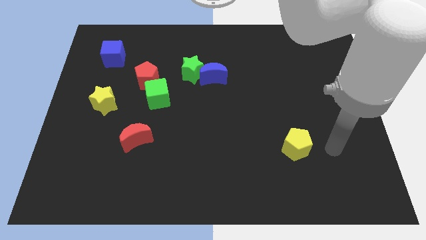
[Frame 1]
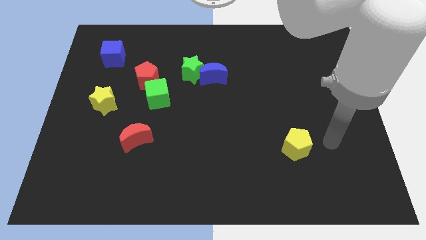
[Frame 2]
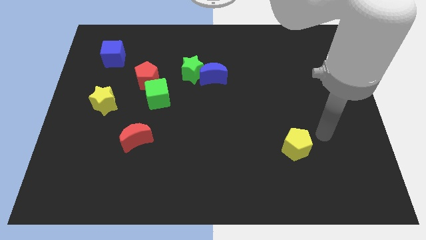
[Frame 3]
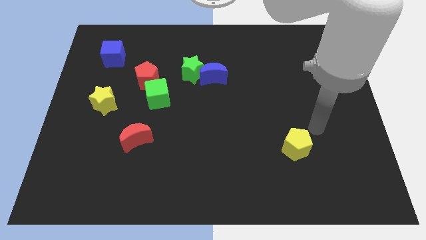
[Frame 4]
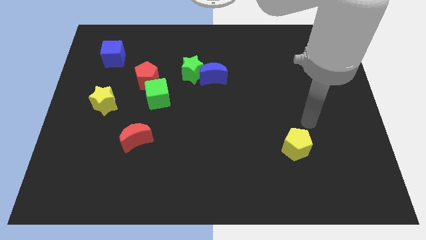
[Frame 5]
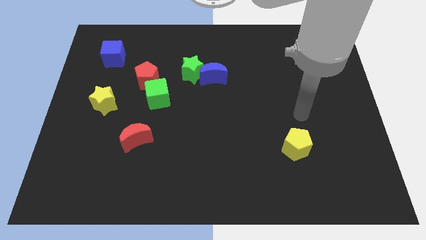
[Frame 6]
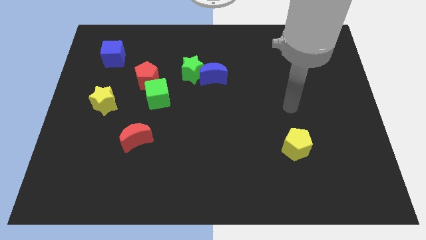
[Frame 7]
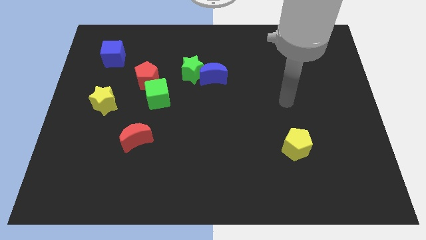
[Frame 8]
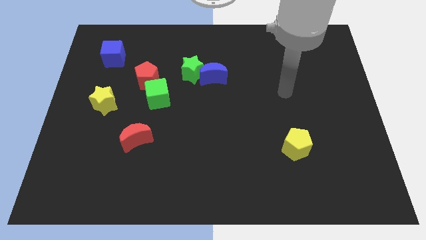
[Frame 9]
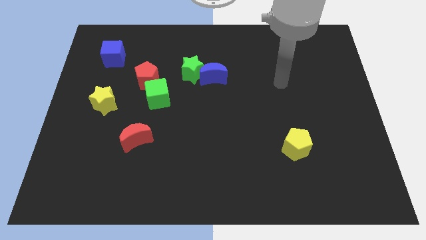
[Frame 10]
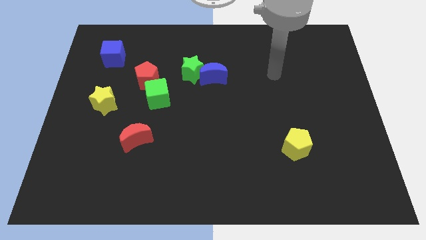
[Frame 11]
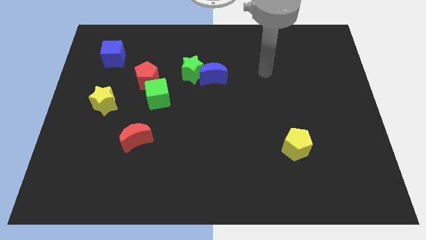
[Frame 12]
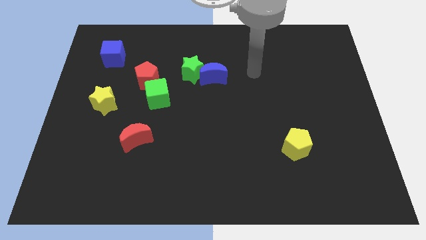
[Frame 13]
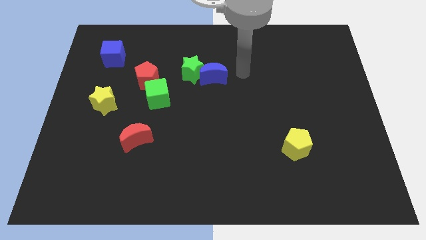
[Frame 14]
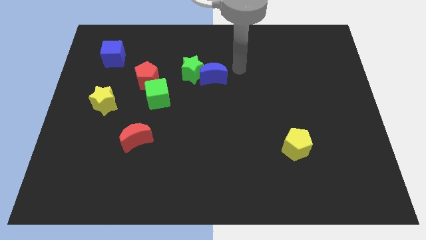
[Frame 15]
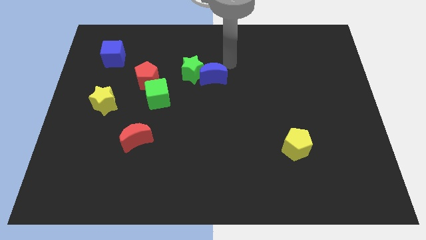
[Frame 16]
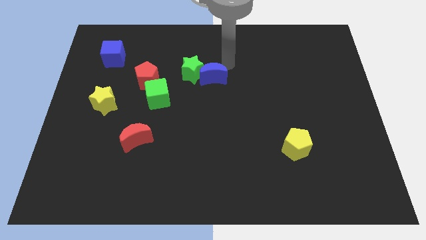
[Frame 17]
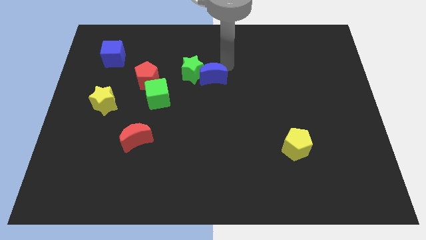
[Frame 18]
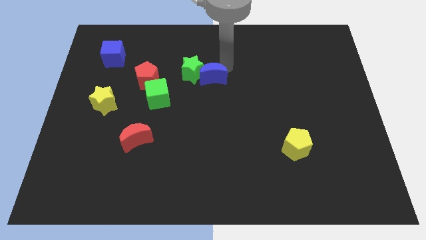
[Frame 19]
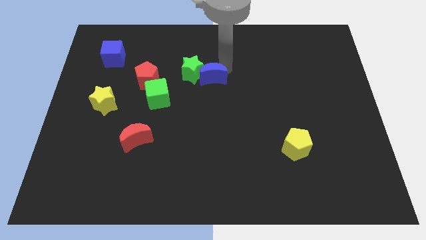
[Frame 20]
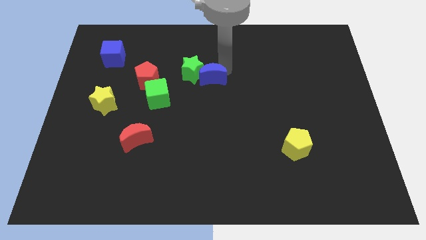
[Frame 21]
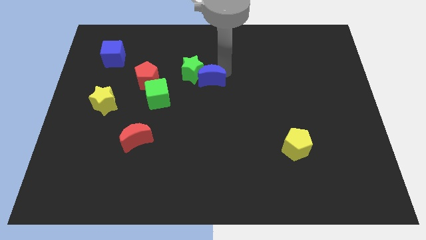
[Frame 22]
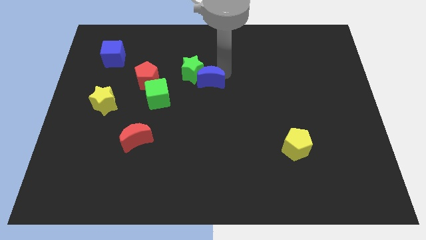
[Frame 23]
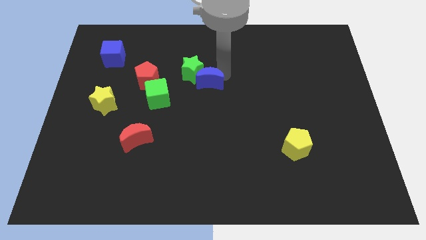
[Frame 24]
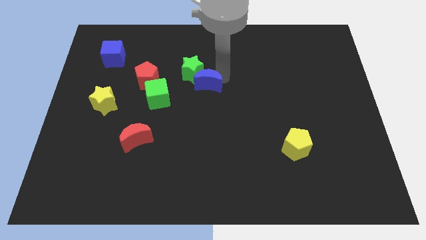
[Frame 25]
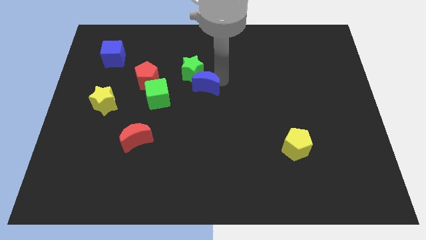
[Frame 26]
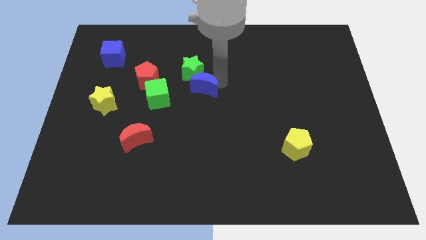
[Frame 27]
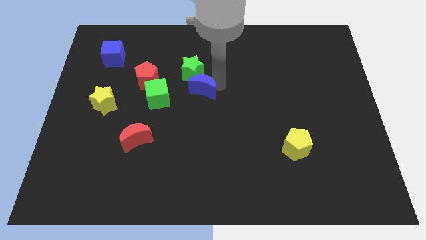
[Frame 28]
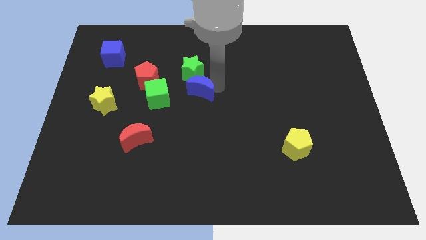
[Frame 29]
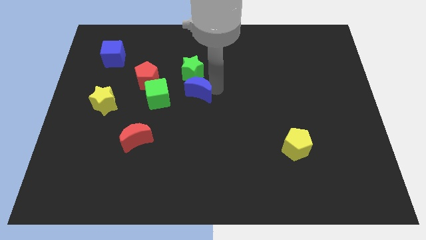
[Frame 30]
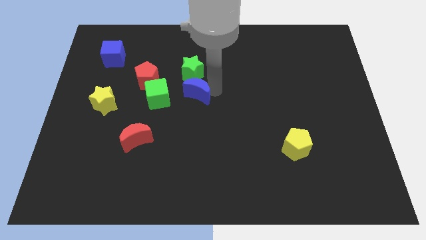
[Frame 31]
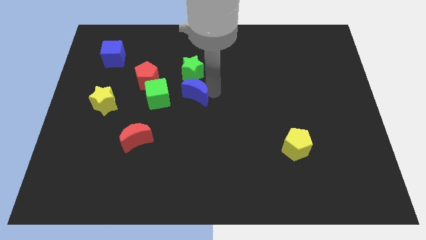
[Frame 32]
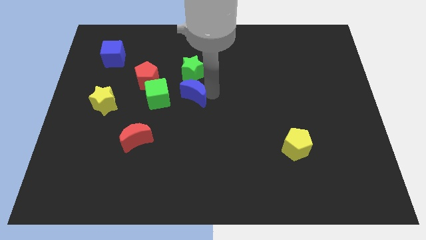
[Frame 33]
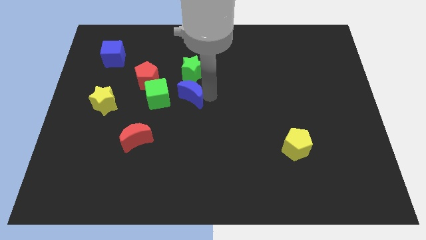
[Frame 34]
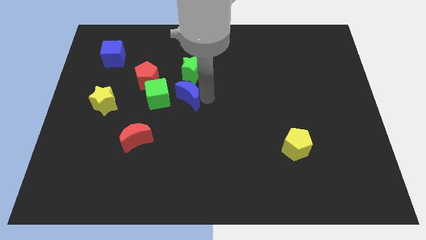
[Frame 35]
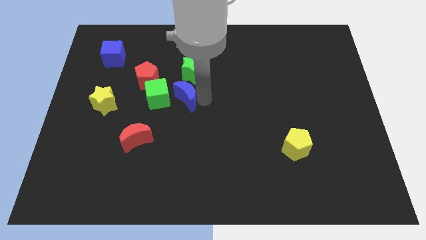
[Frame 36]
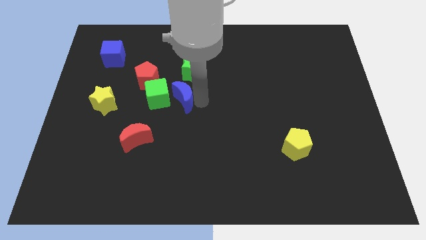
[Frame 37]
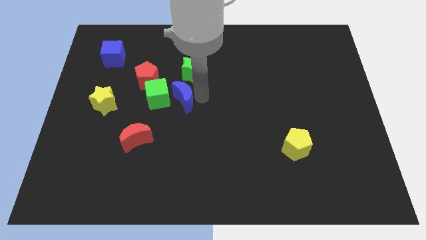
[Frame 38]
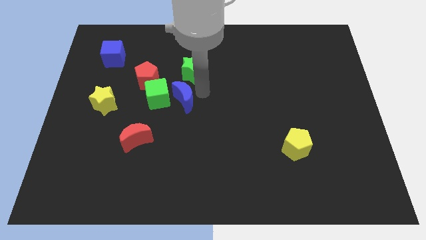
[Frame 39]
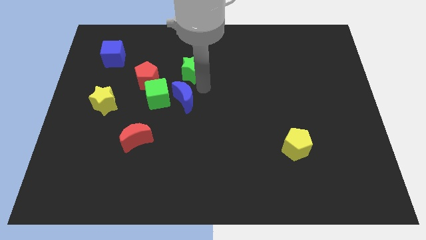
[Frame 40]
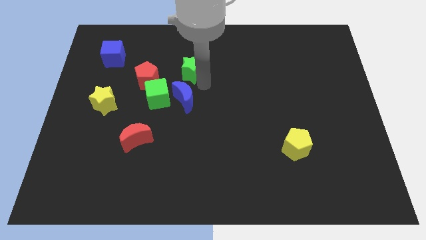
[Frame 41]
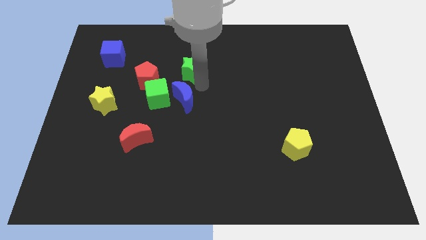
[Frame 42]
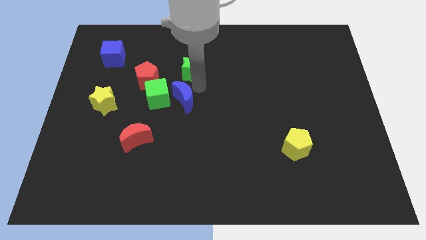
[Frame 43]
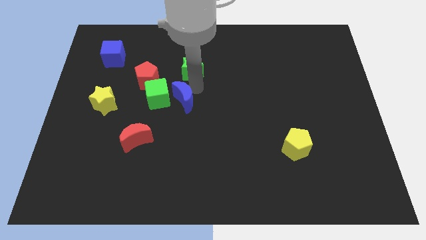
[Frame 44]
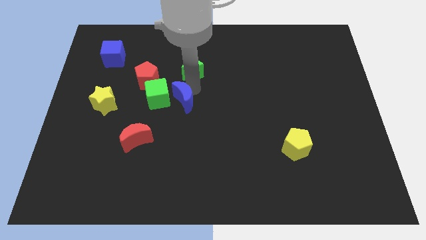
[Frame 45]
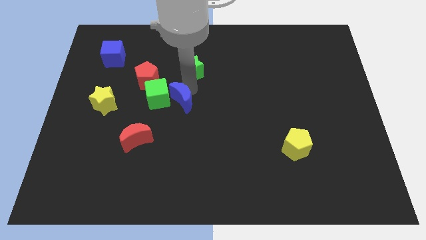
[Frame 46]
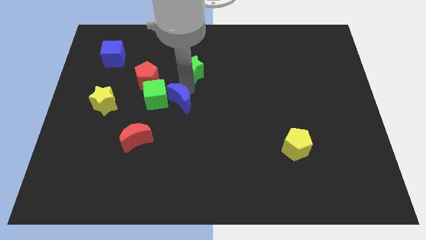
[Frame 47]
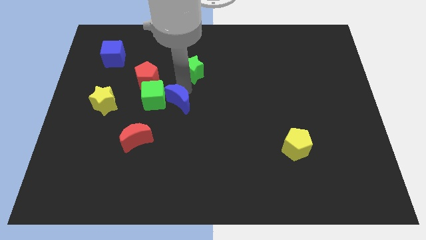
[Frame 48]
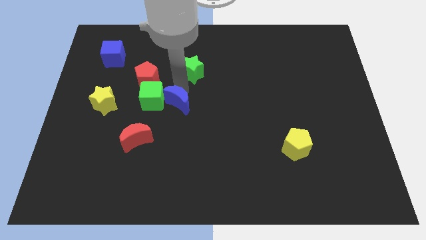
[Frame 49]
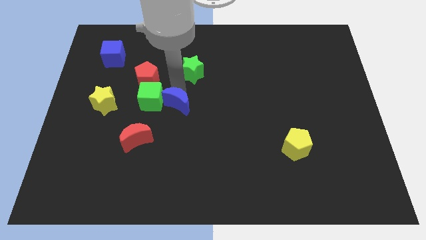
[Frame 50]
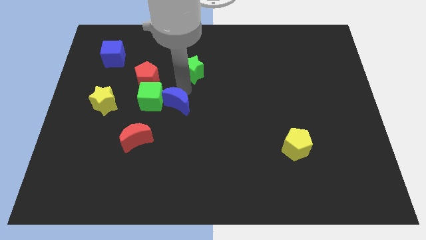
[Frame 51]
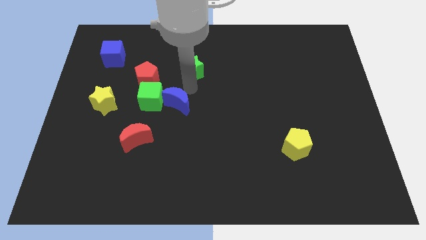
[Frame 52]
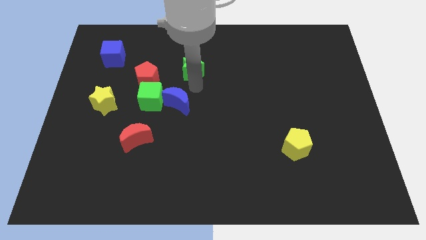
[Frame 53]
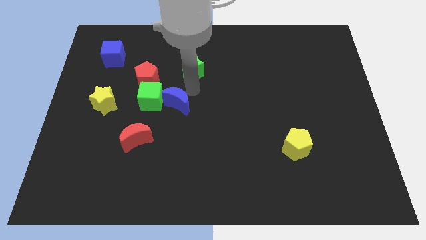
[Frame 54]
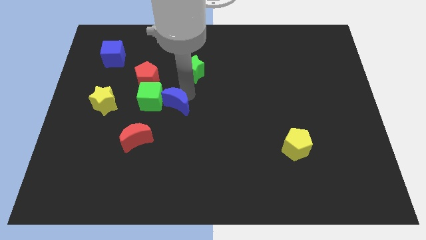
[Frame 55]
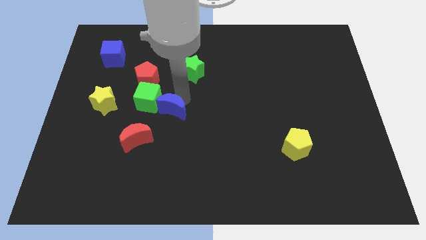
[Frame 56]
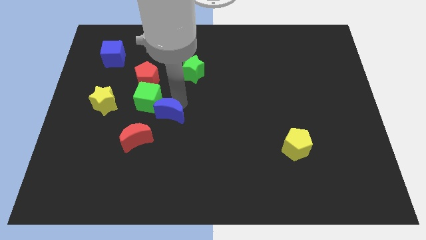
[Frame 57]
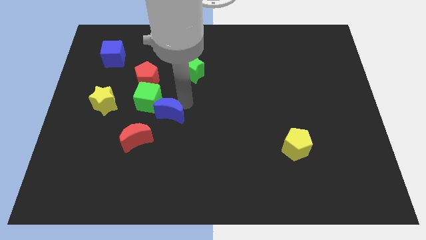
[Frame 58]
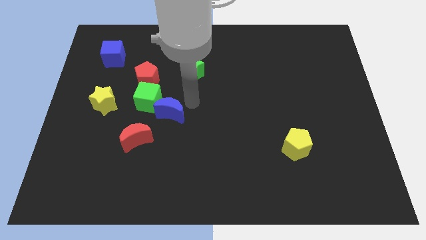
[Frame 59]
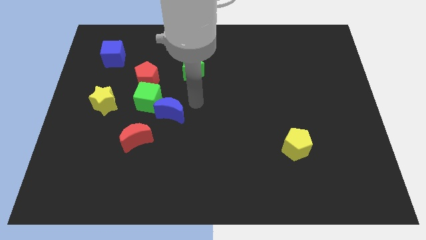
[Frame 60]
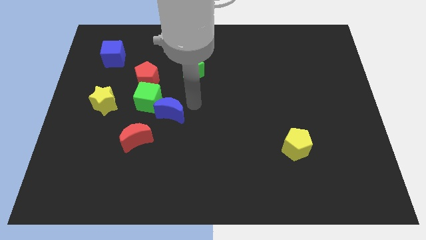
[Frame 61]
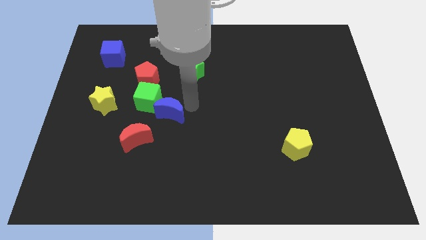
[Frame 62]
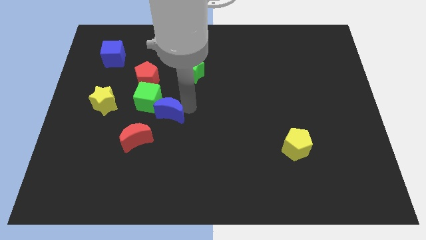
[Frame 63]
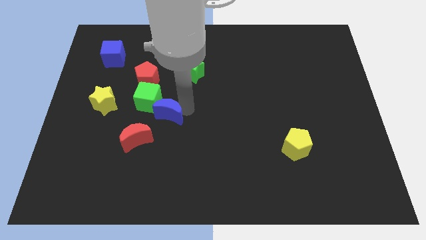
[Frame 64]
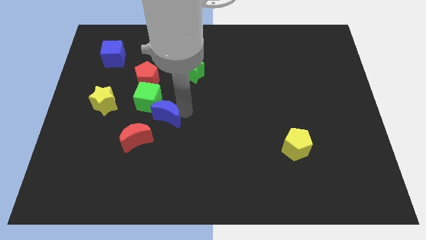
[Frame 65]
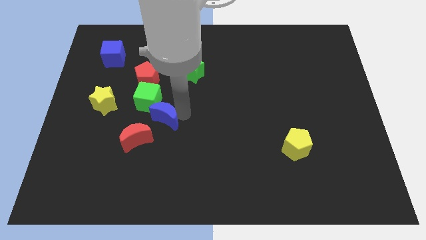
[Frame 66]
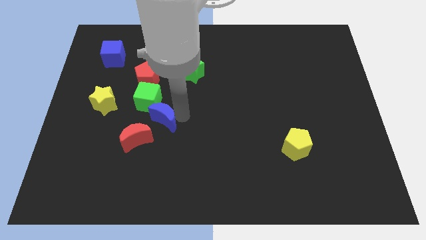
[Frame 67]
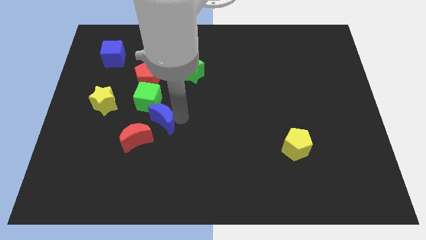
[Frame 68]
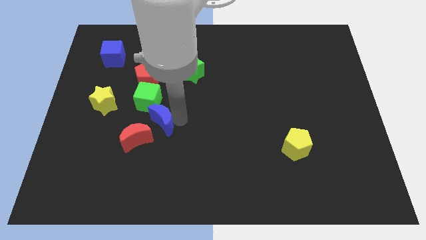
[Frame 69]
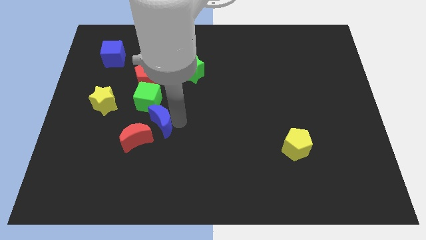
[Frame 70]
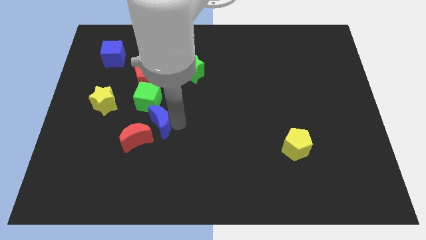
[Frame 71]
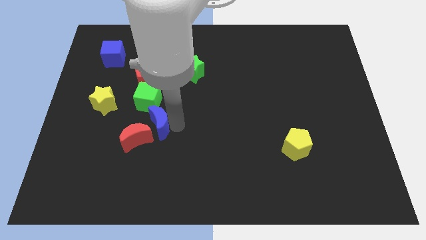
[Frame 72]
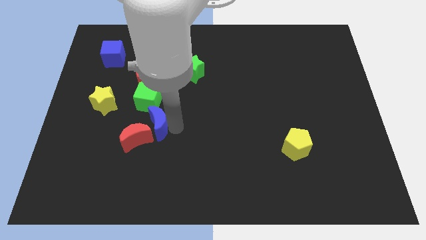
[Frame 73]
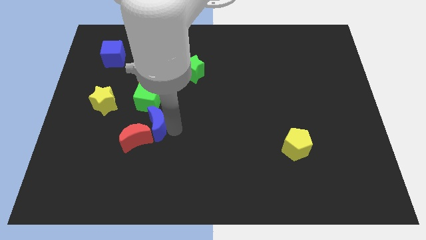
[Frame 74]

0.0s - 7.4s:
push the blue moon to the top side of the red moon

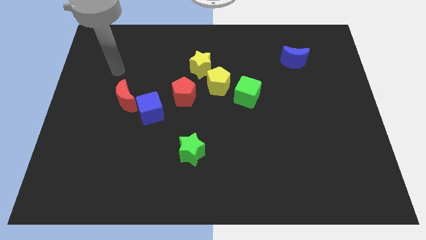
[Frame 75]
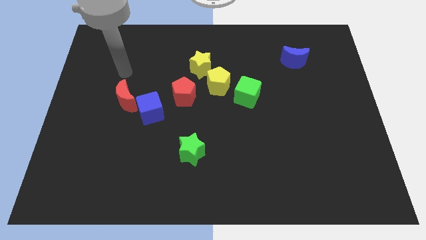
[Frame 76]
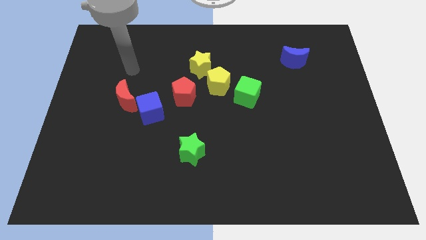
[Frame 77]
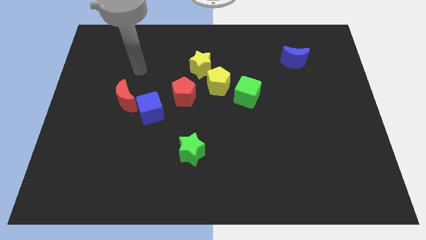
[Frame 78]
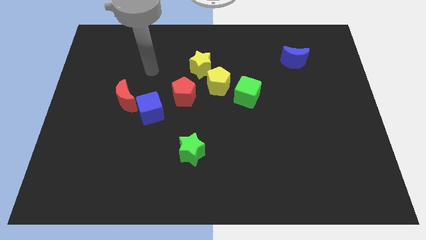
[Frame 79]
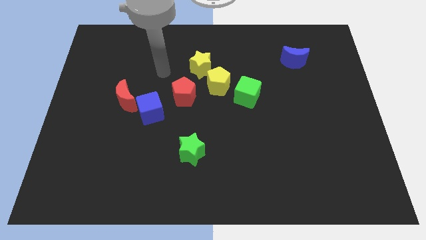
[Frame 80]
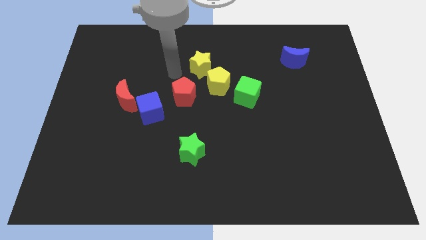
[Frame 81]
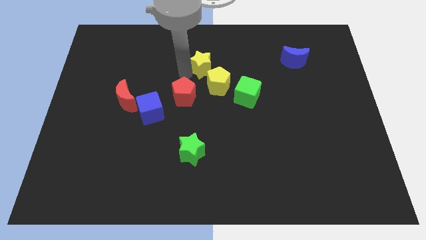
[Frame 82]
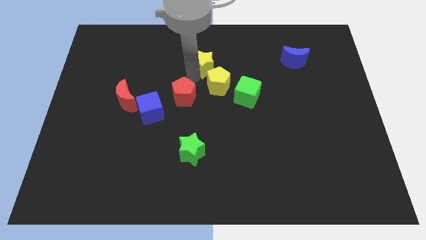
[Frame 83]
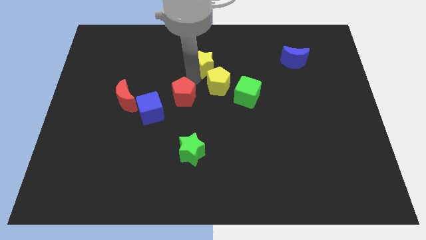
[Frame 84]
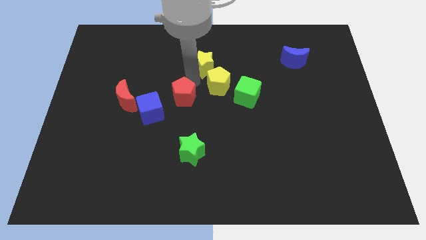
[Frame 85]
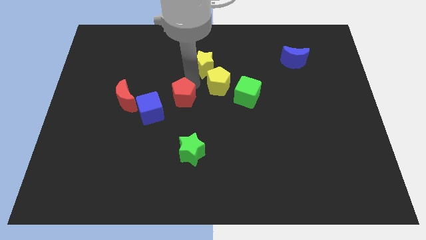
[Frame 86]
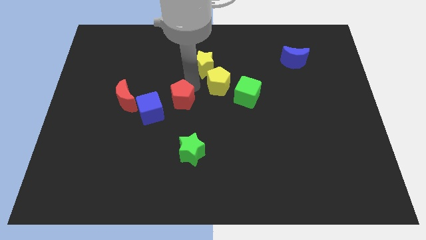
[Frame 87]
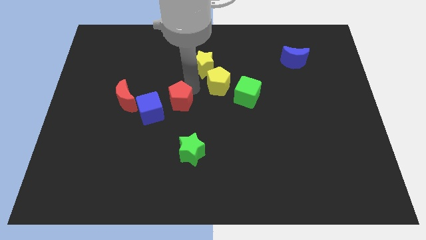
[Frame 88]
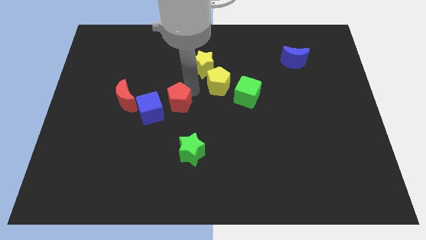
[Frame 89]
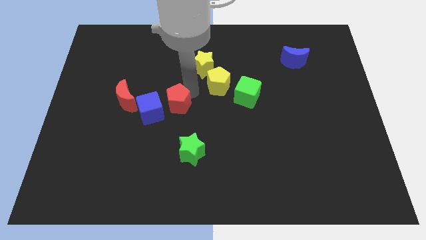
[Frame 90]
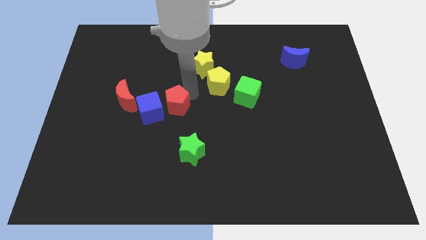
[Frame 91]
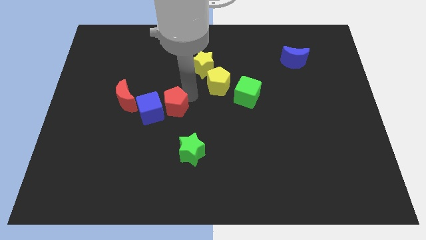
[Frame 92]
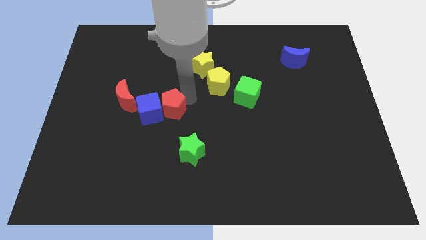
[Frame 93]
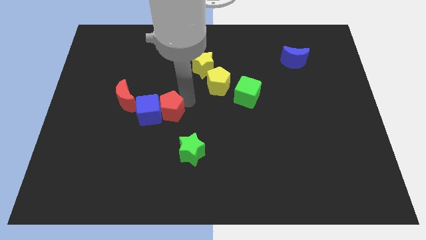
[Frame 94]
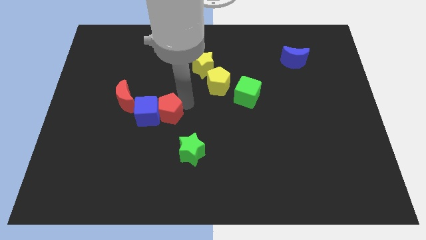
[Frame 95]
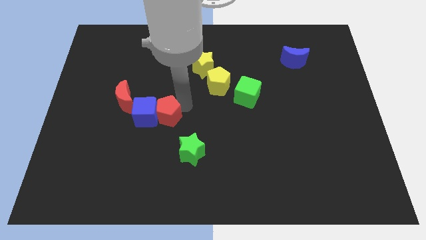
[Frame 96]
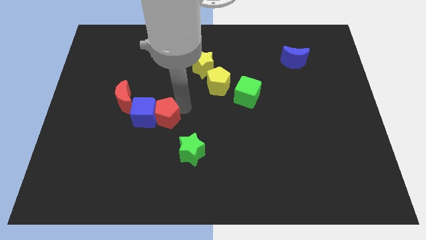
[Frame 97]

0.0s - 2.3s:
move the red pentagon diagonally down and to the right of the red moon
